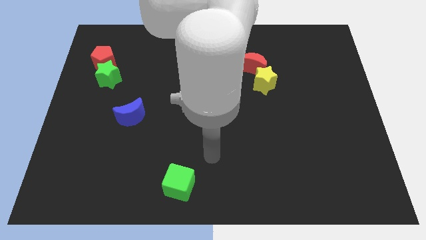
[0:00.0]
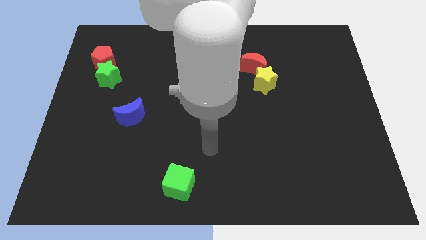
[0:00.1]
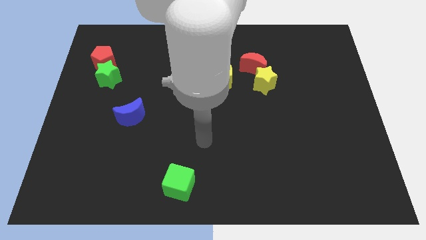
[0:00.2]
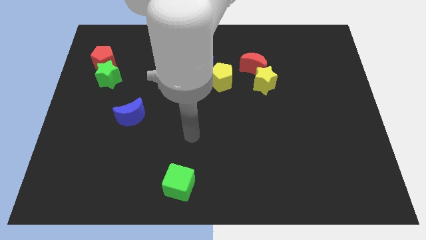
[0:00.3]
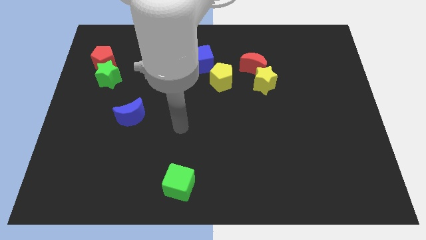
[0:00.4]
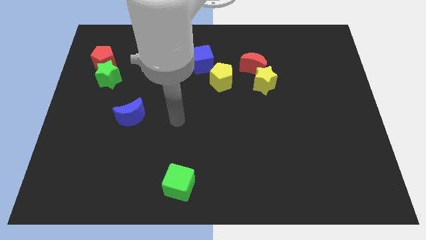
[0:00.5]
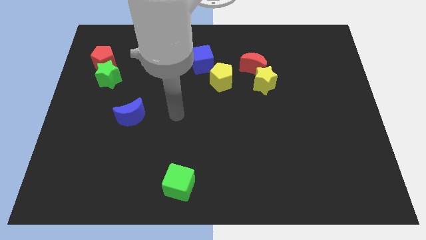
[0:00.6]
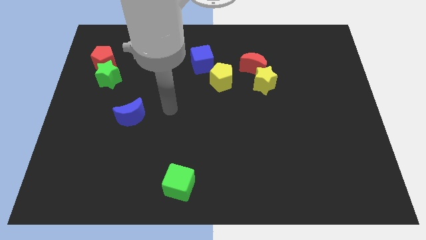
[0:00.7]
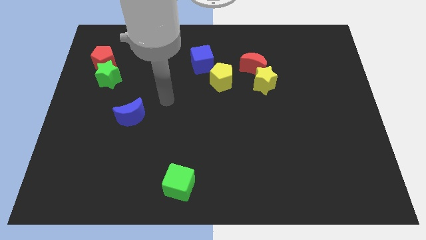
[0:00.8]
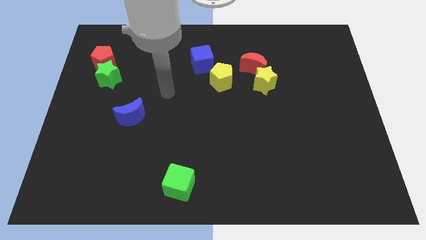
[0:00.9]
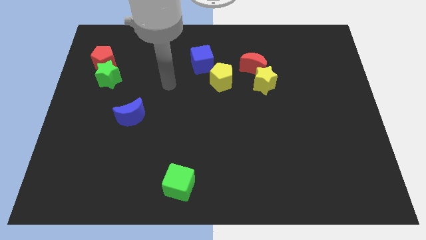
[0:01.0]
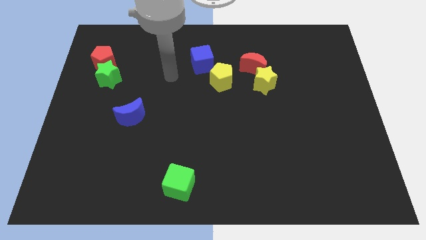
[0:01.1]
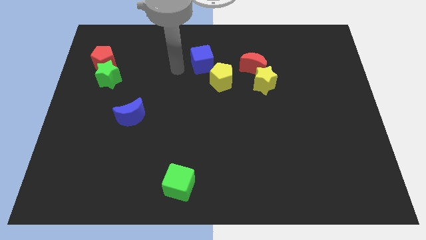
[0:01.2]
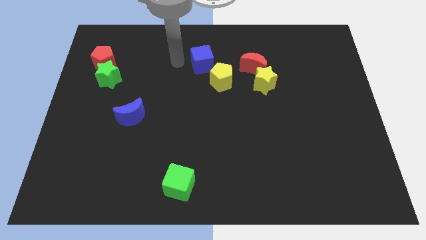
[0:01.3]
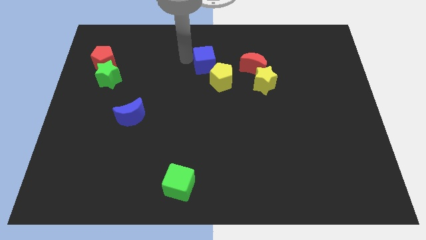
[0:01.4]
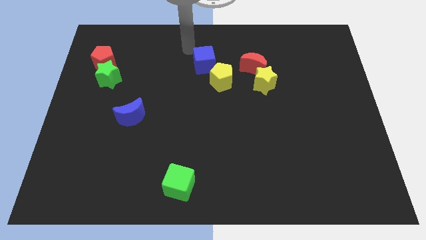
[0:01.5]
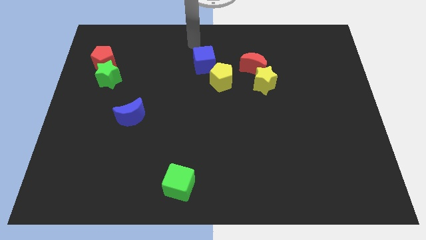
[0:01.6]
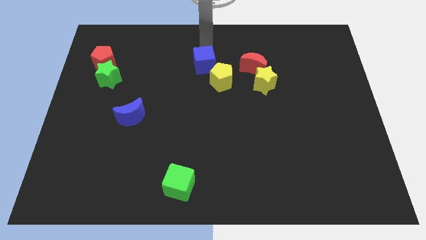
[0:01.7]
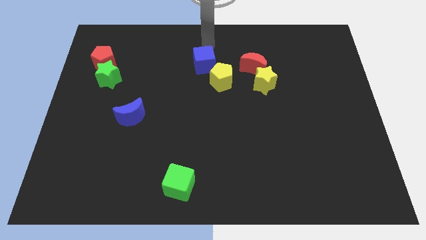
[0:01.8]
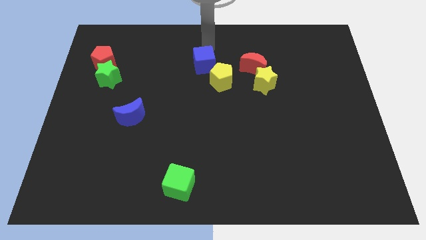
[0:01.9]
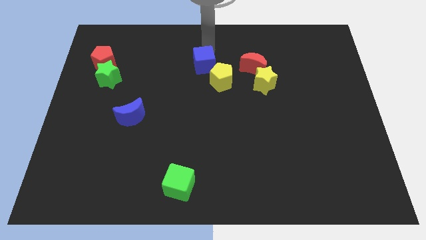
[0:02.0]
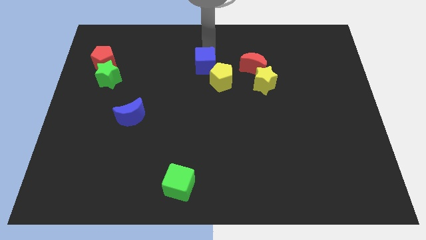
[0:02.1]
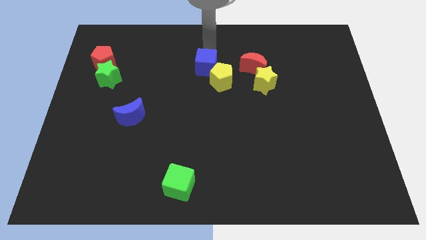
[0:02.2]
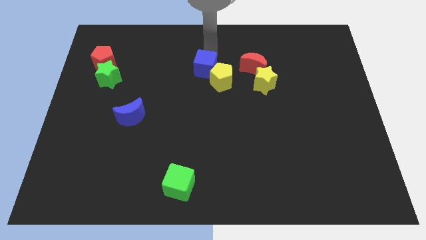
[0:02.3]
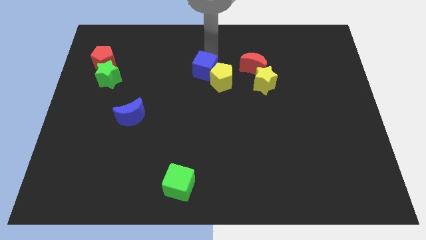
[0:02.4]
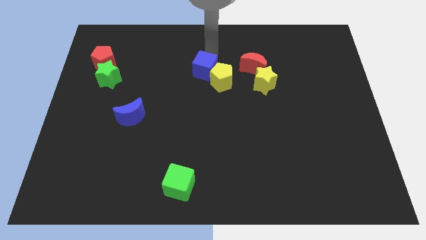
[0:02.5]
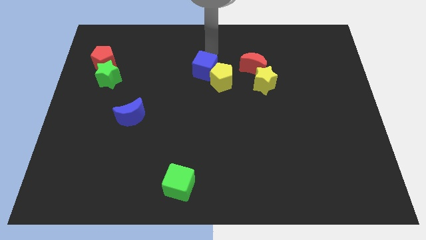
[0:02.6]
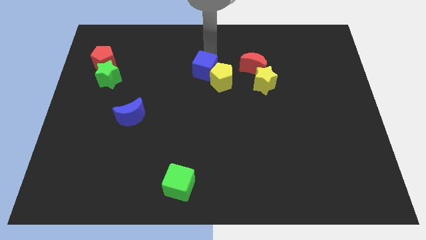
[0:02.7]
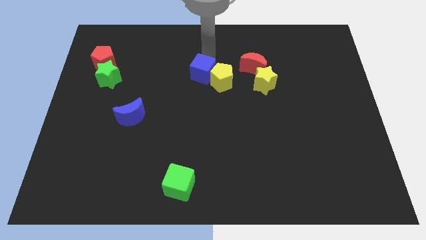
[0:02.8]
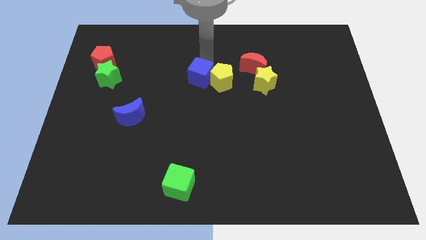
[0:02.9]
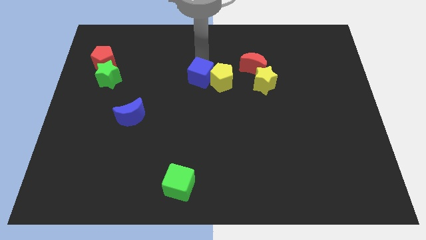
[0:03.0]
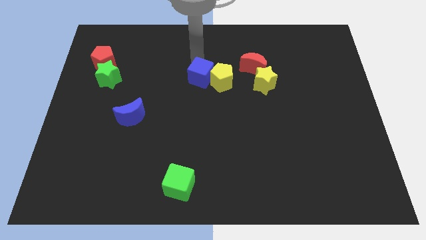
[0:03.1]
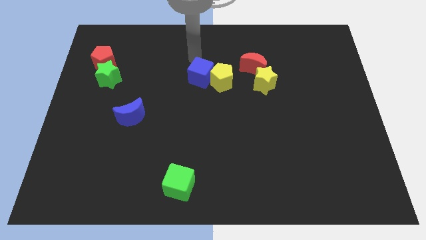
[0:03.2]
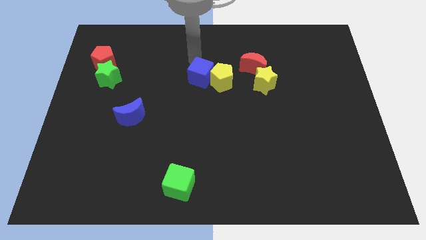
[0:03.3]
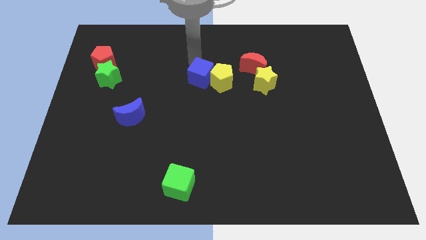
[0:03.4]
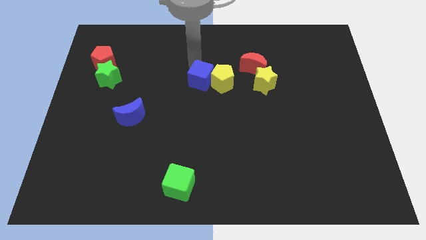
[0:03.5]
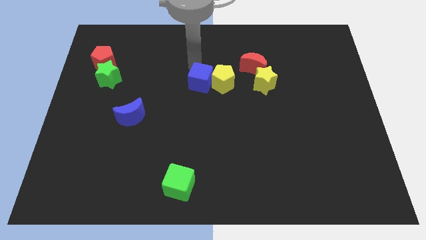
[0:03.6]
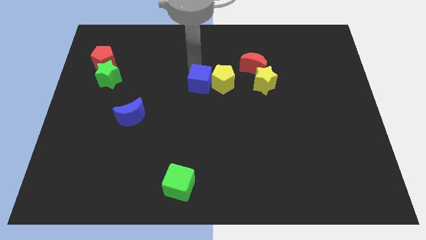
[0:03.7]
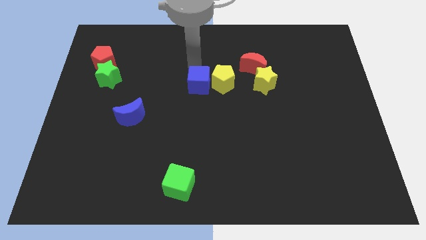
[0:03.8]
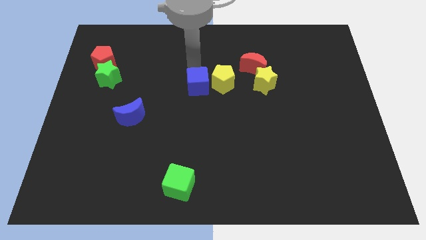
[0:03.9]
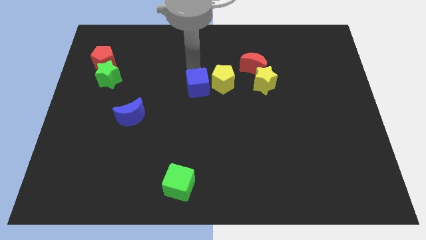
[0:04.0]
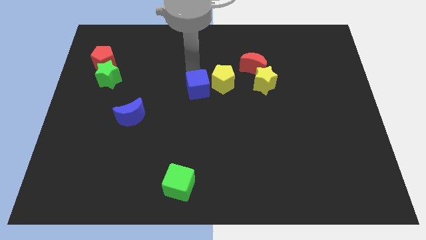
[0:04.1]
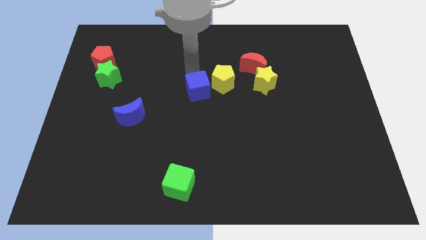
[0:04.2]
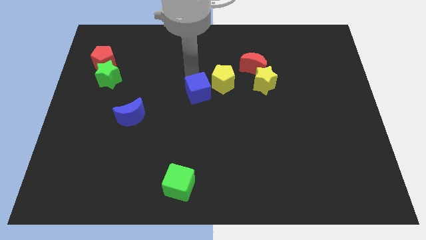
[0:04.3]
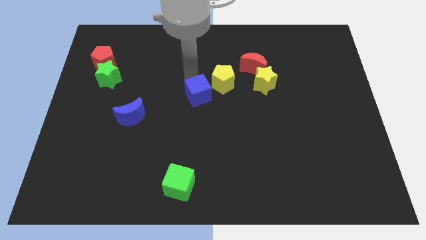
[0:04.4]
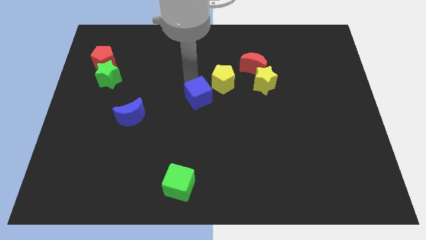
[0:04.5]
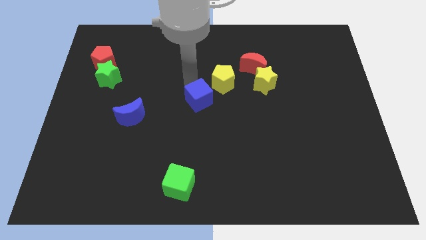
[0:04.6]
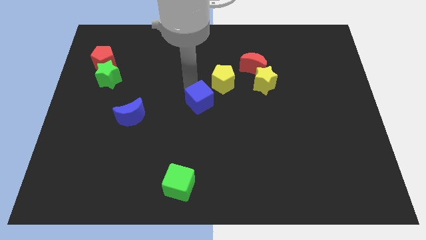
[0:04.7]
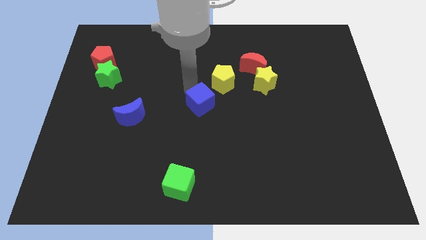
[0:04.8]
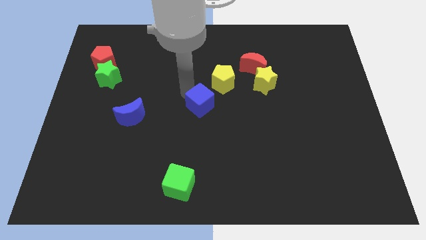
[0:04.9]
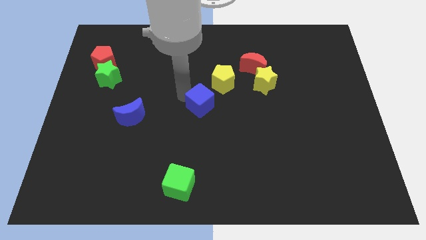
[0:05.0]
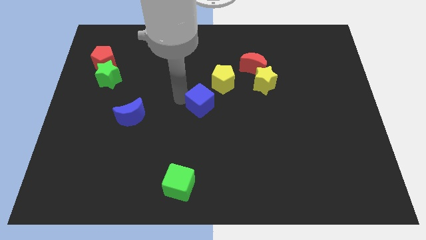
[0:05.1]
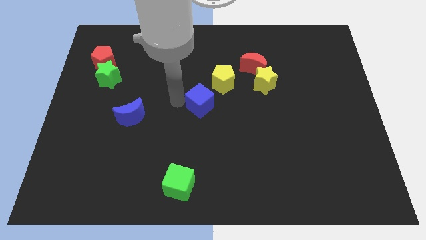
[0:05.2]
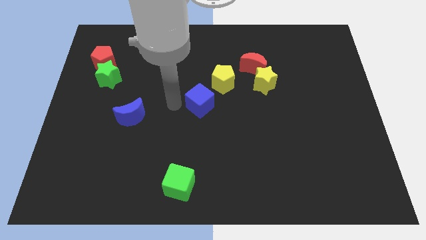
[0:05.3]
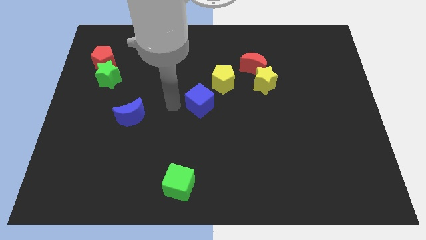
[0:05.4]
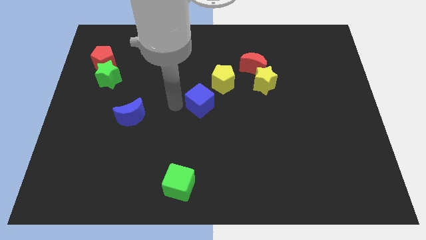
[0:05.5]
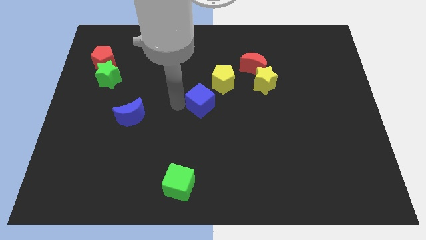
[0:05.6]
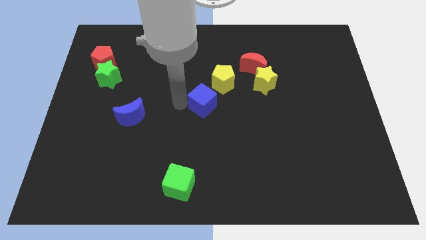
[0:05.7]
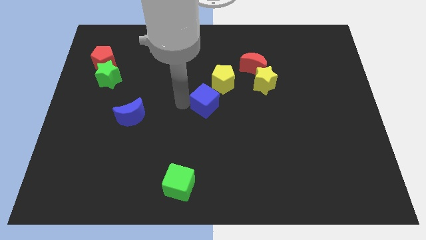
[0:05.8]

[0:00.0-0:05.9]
move the blue cube down and then to the right a little bit

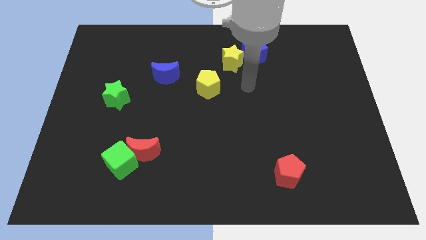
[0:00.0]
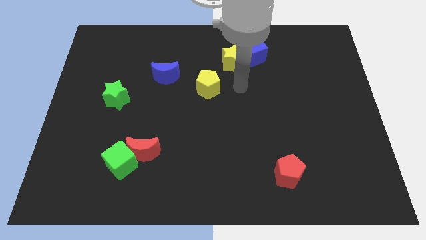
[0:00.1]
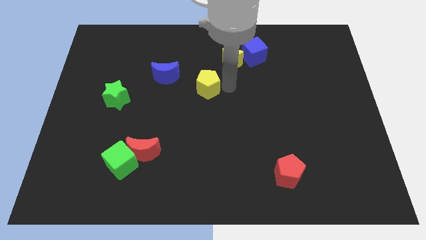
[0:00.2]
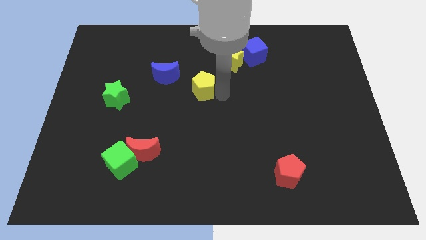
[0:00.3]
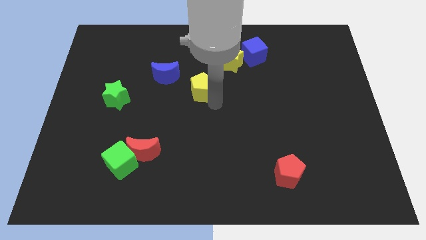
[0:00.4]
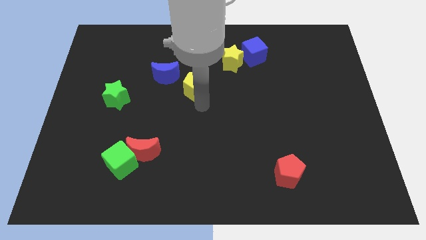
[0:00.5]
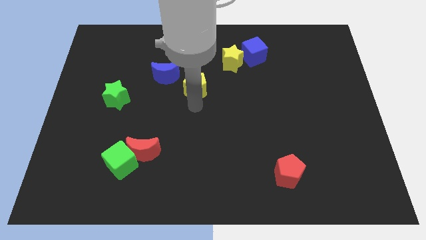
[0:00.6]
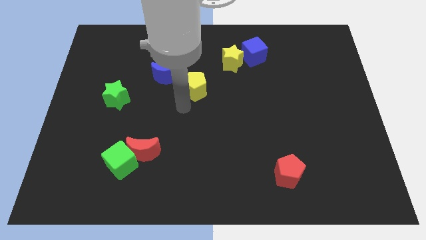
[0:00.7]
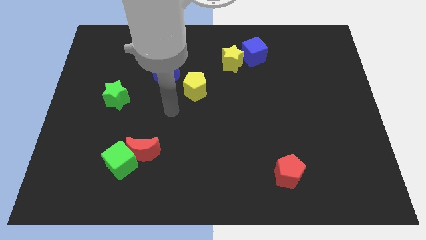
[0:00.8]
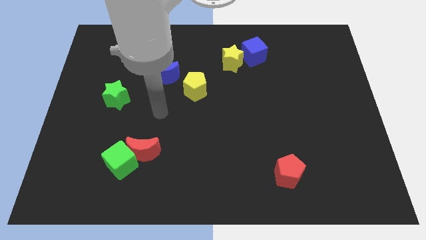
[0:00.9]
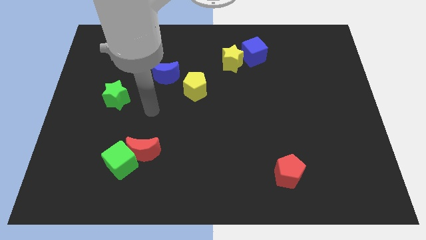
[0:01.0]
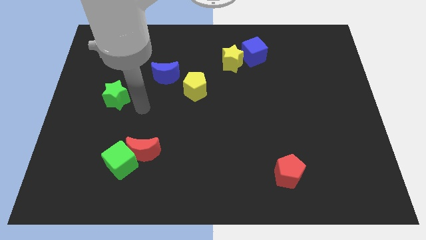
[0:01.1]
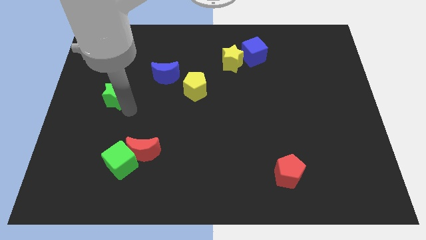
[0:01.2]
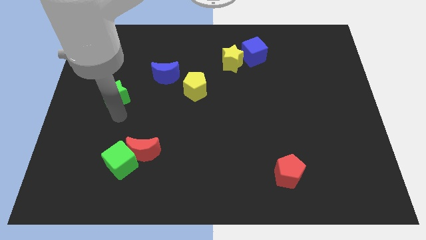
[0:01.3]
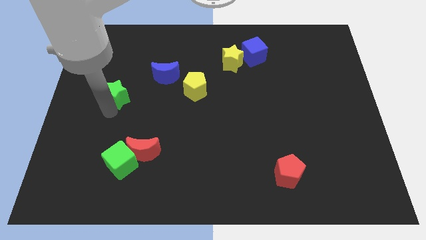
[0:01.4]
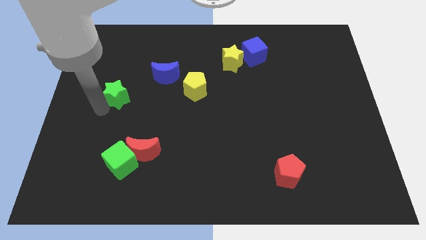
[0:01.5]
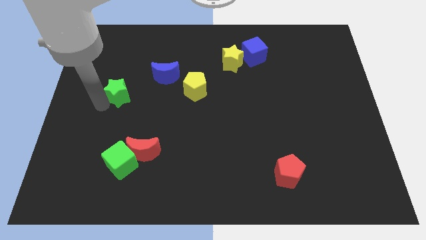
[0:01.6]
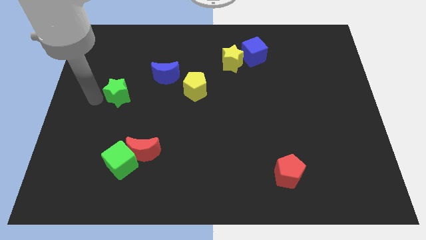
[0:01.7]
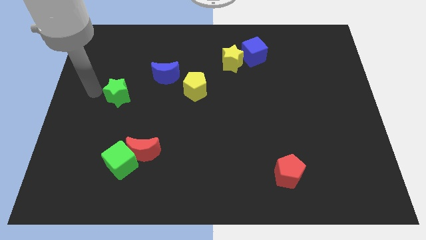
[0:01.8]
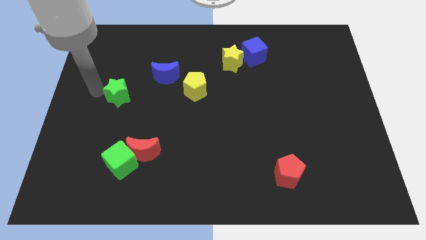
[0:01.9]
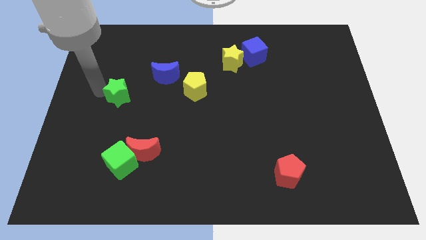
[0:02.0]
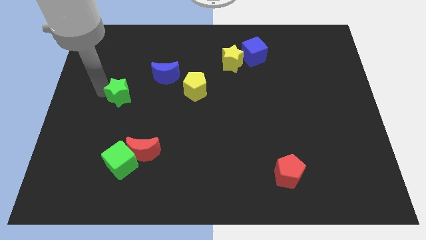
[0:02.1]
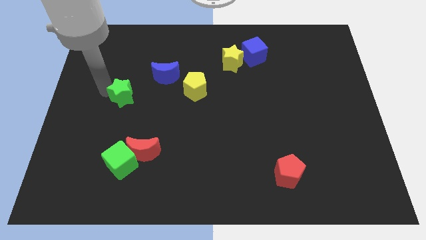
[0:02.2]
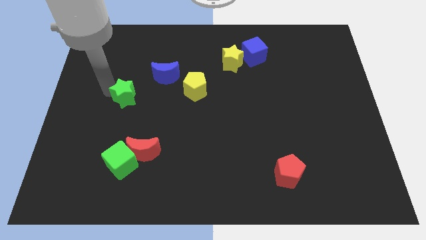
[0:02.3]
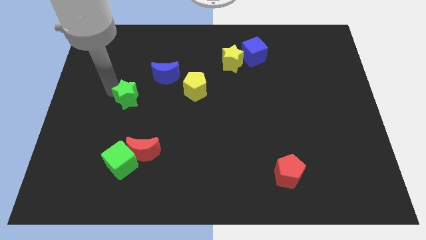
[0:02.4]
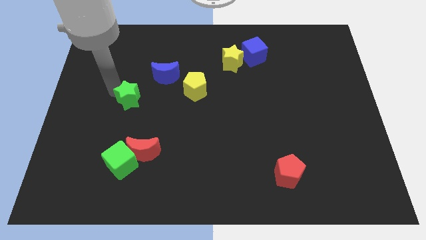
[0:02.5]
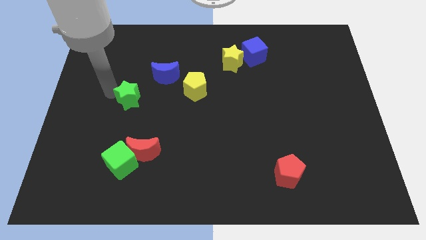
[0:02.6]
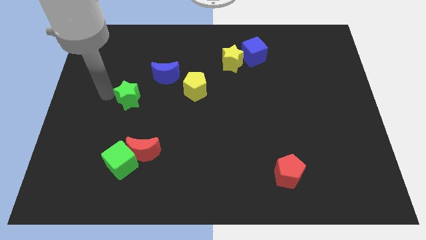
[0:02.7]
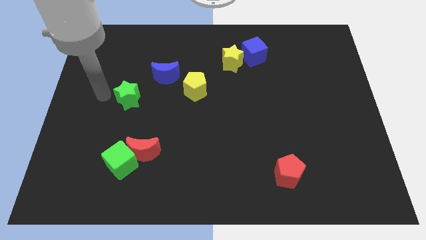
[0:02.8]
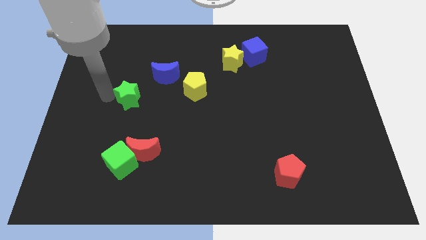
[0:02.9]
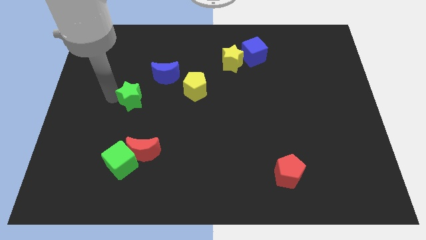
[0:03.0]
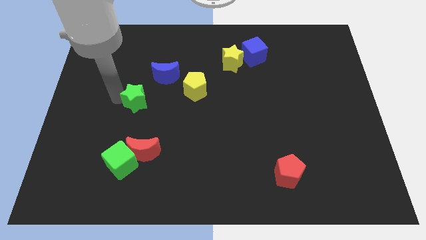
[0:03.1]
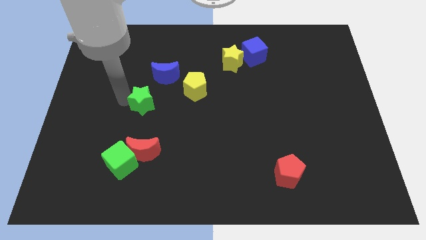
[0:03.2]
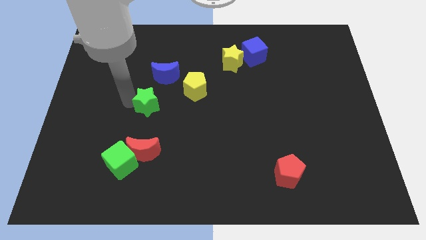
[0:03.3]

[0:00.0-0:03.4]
slightly push the green star to the right
